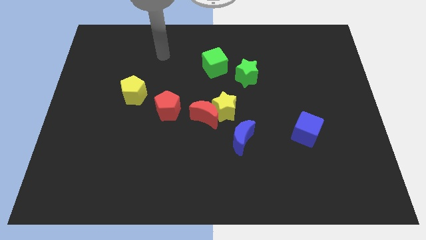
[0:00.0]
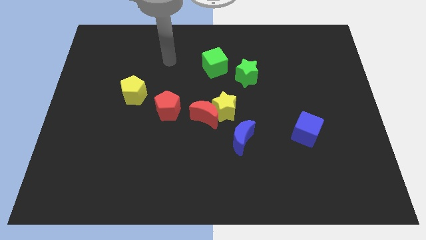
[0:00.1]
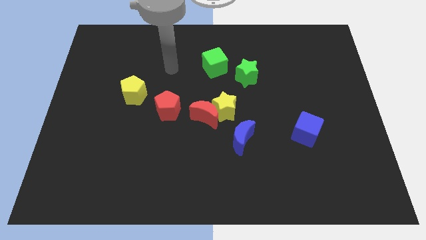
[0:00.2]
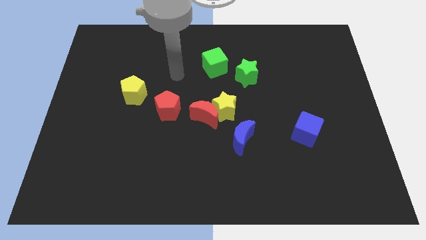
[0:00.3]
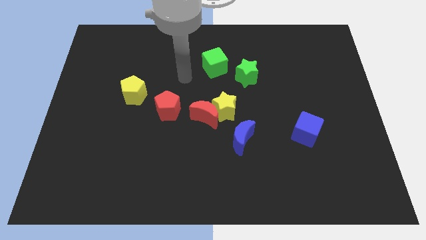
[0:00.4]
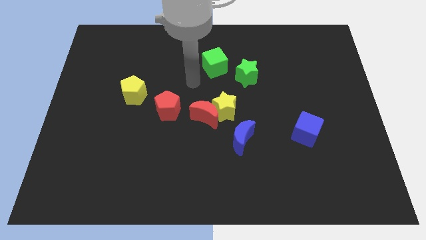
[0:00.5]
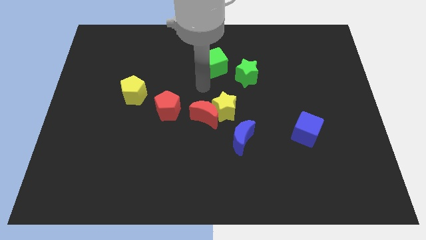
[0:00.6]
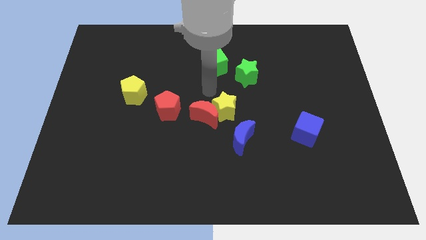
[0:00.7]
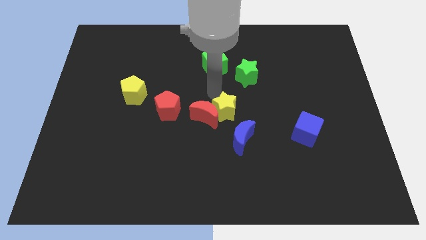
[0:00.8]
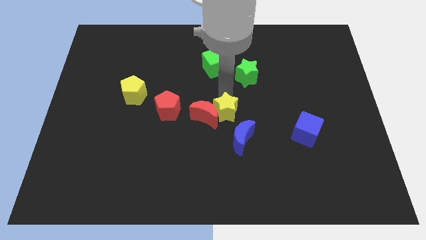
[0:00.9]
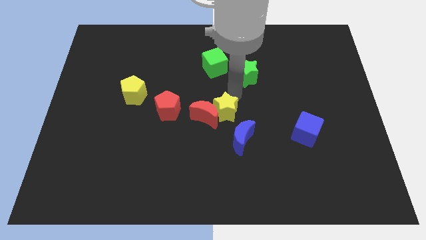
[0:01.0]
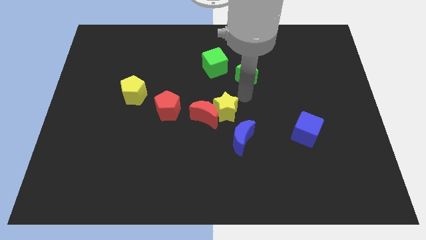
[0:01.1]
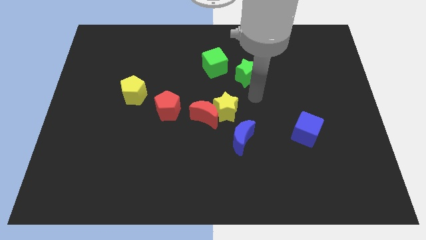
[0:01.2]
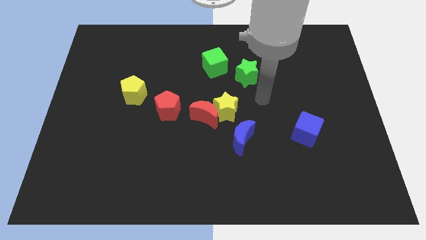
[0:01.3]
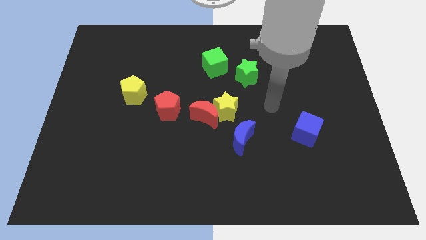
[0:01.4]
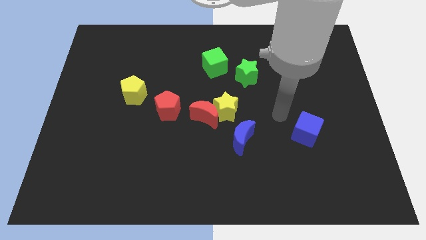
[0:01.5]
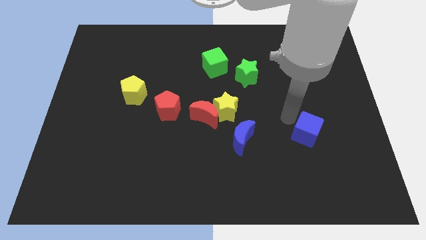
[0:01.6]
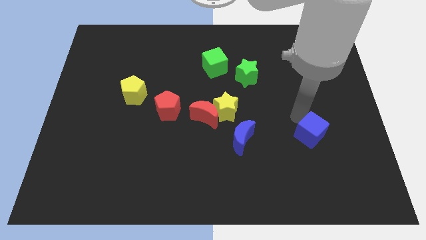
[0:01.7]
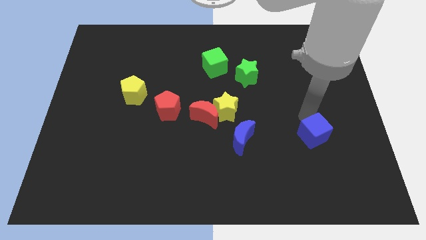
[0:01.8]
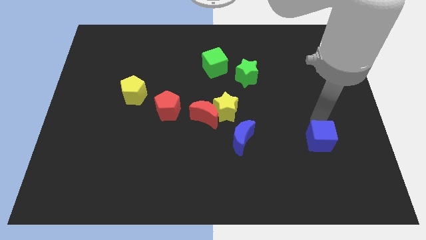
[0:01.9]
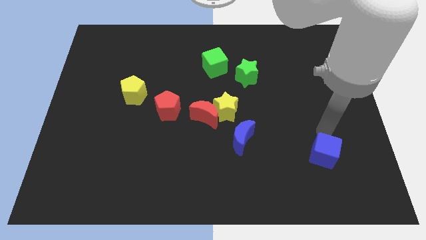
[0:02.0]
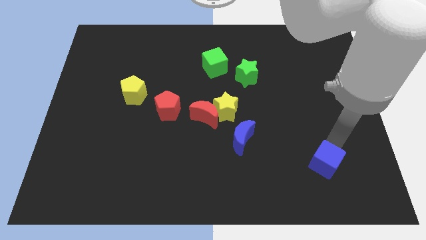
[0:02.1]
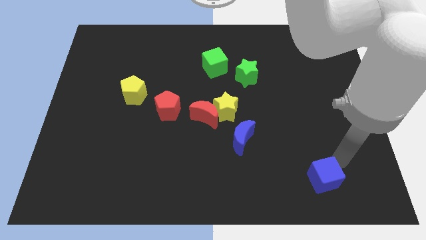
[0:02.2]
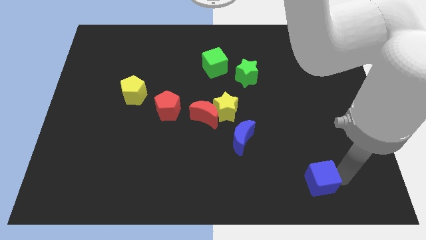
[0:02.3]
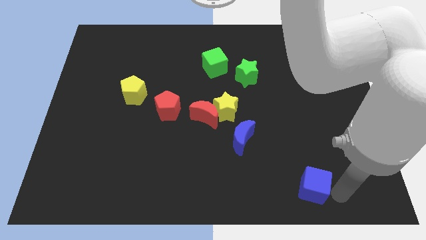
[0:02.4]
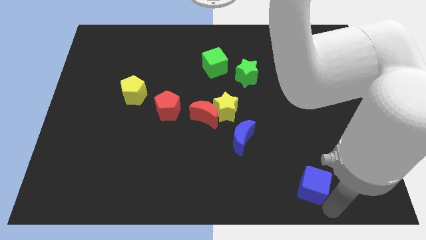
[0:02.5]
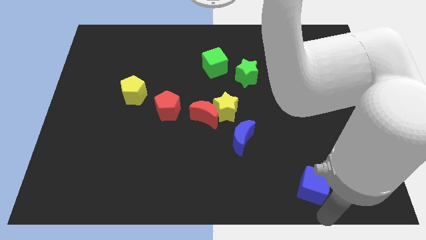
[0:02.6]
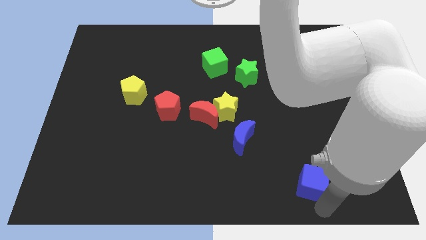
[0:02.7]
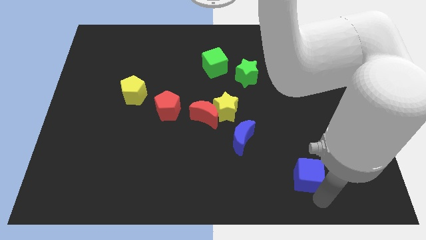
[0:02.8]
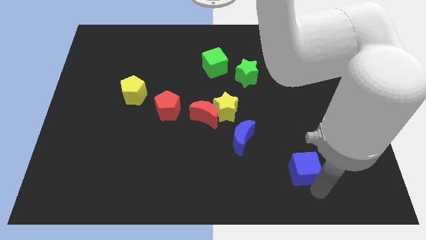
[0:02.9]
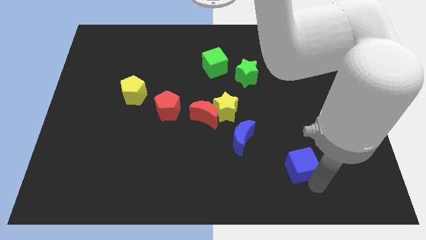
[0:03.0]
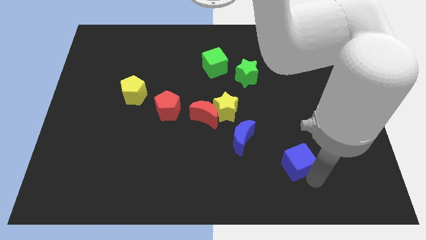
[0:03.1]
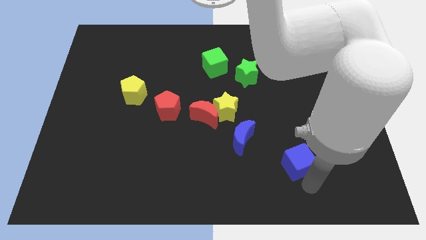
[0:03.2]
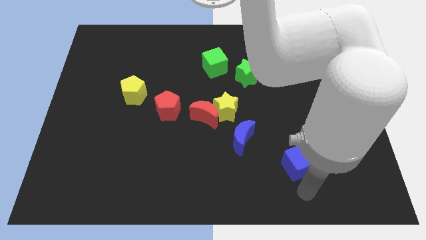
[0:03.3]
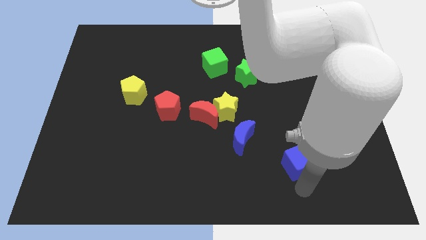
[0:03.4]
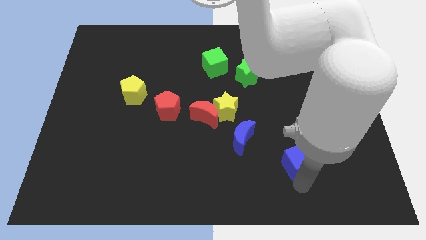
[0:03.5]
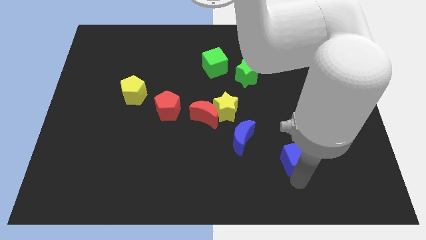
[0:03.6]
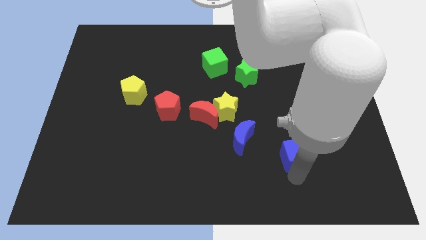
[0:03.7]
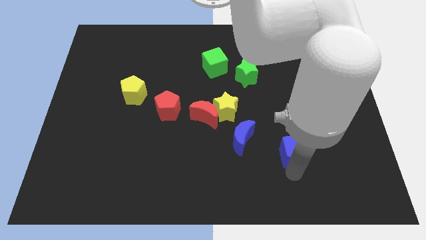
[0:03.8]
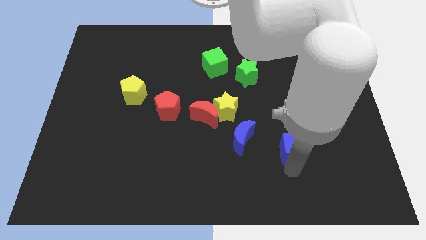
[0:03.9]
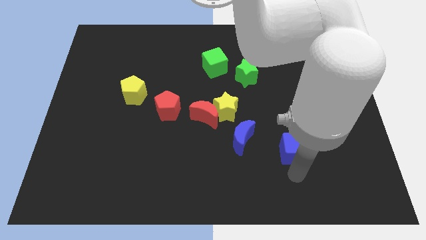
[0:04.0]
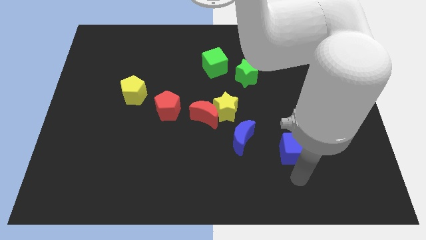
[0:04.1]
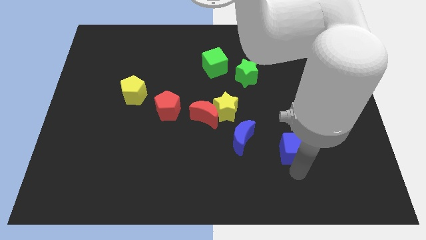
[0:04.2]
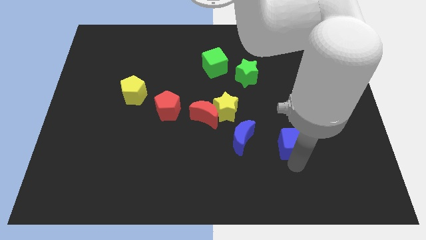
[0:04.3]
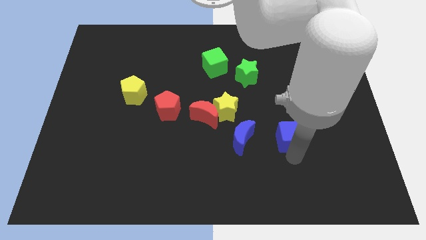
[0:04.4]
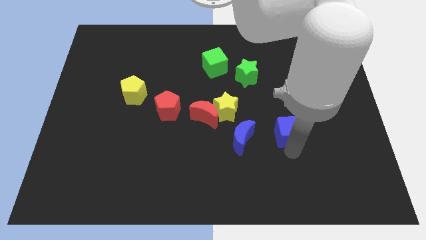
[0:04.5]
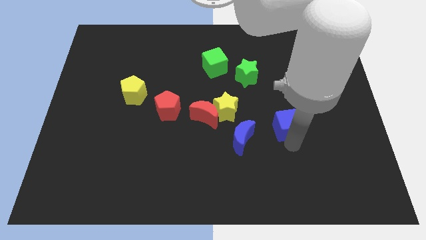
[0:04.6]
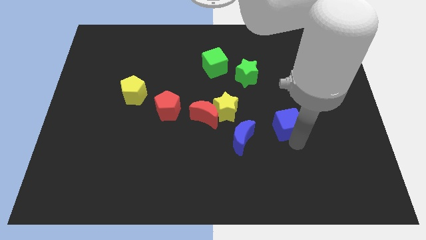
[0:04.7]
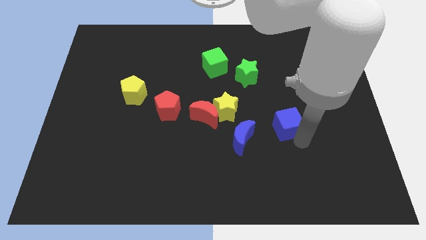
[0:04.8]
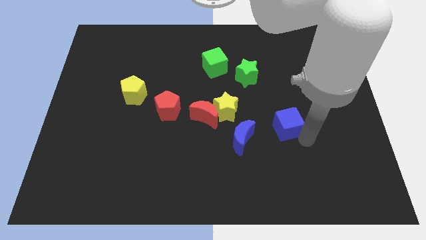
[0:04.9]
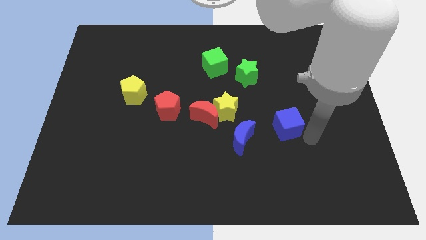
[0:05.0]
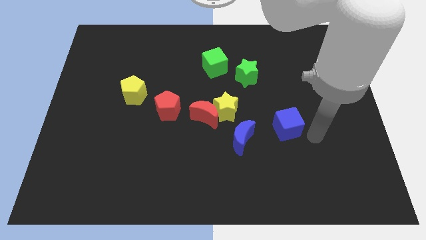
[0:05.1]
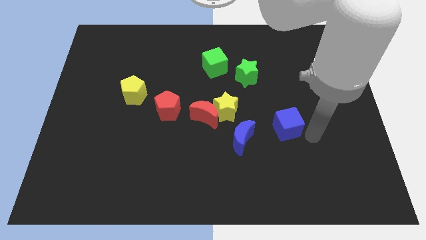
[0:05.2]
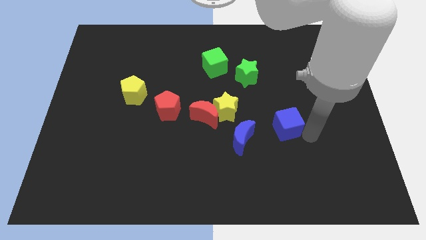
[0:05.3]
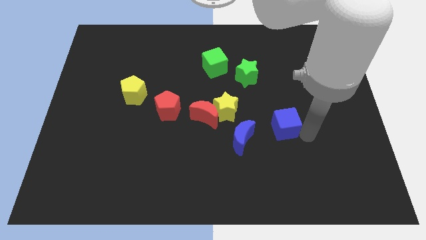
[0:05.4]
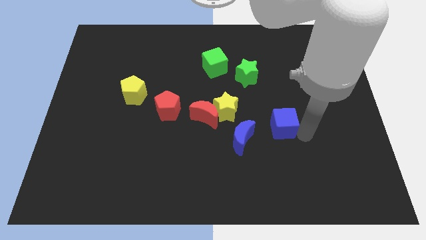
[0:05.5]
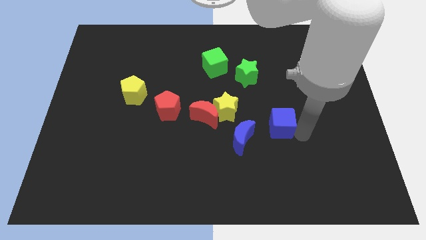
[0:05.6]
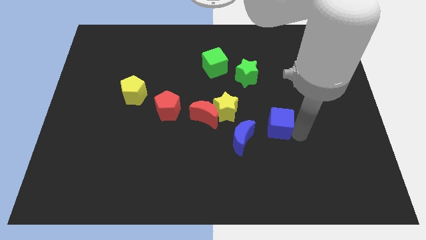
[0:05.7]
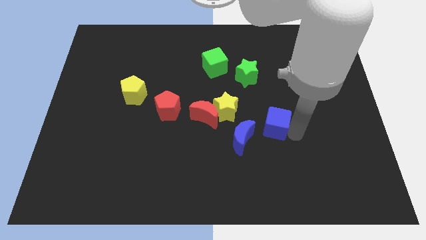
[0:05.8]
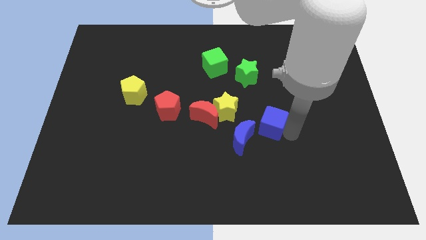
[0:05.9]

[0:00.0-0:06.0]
slightly slide the blue cube to the left

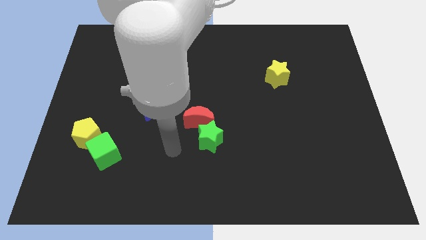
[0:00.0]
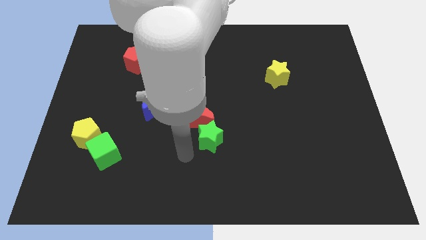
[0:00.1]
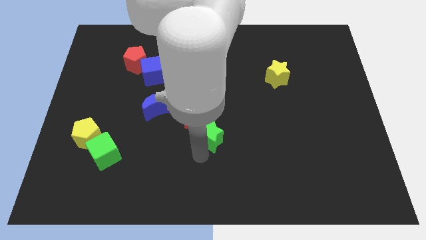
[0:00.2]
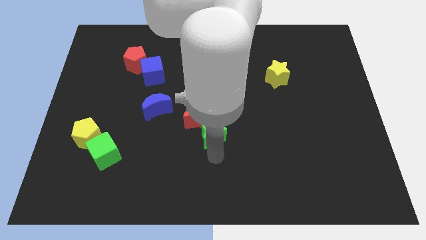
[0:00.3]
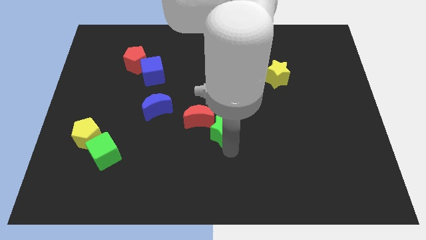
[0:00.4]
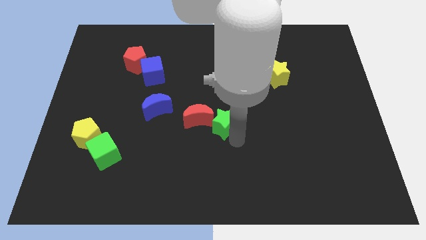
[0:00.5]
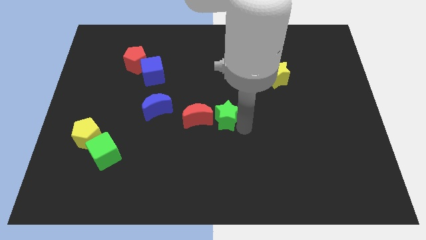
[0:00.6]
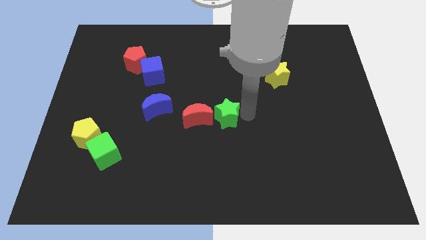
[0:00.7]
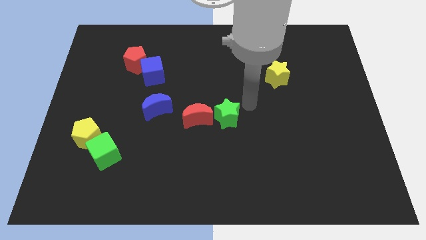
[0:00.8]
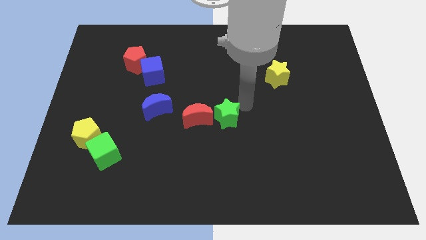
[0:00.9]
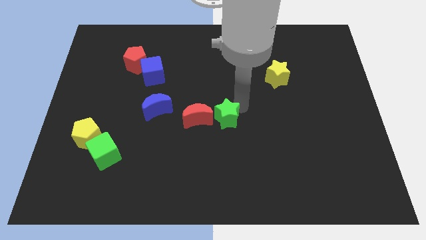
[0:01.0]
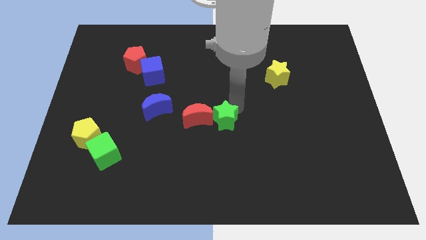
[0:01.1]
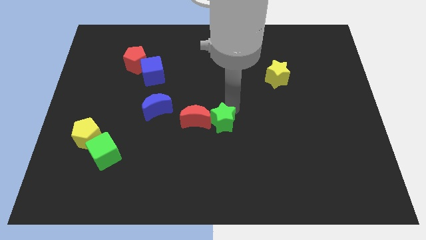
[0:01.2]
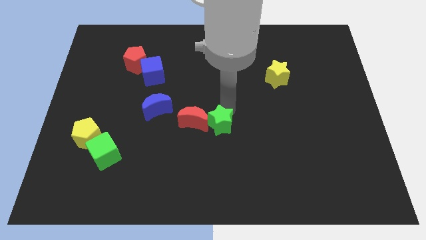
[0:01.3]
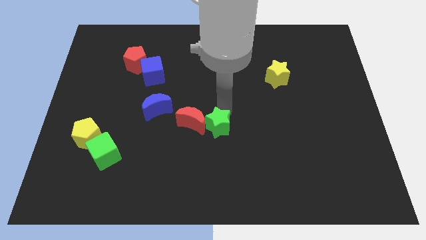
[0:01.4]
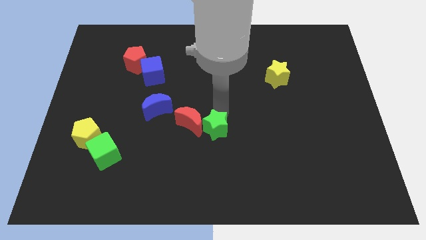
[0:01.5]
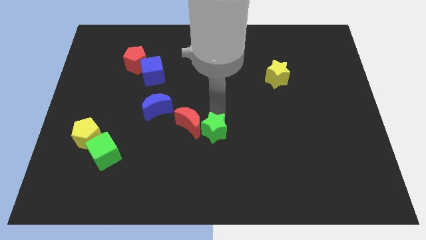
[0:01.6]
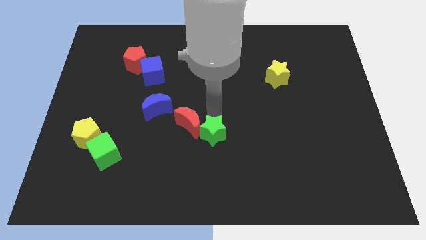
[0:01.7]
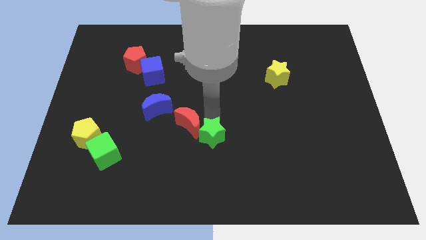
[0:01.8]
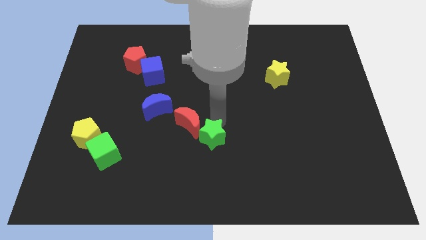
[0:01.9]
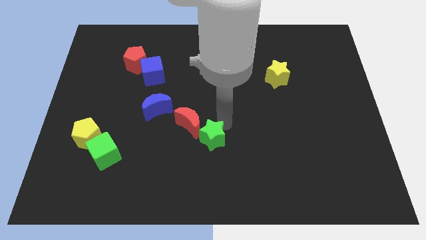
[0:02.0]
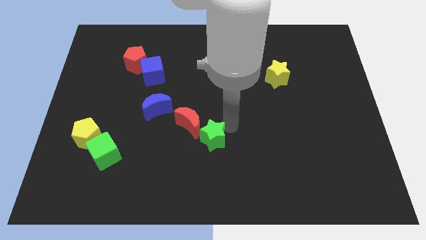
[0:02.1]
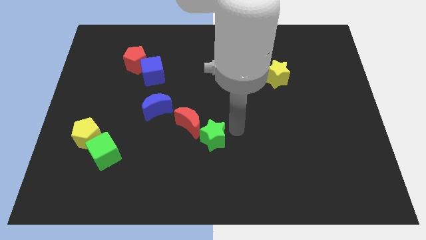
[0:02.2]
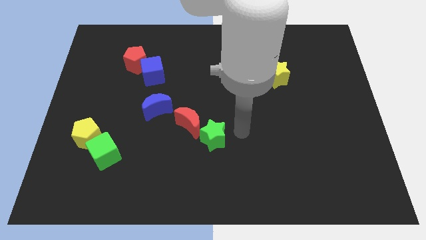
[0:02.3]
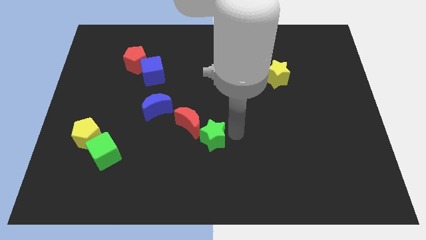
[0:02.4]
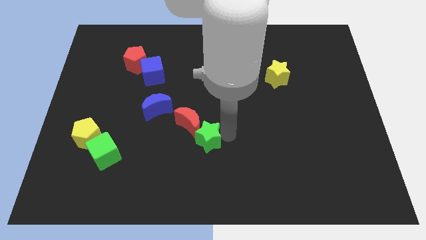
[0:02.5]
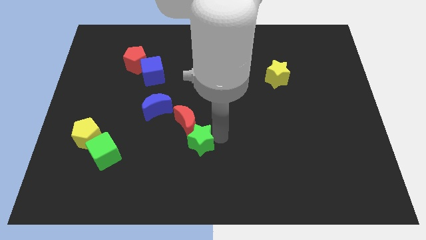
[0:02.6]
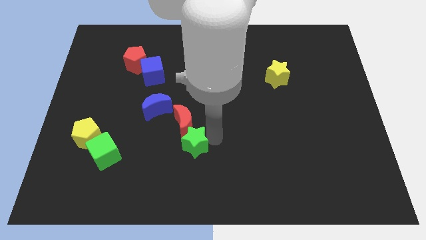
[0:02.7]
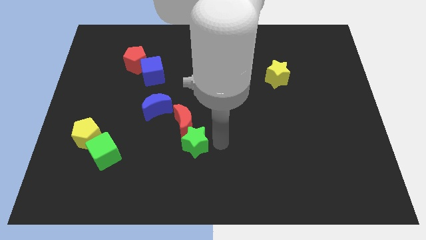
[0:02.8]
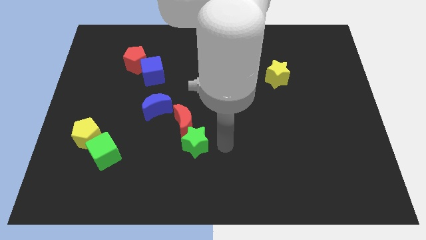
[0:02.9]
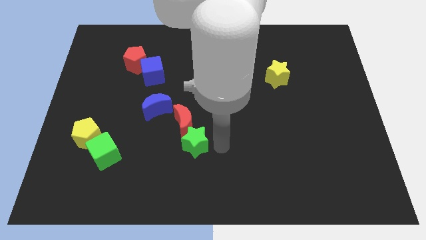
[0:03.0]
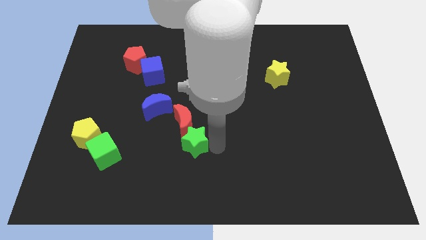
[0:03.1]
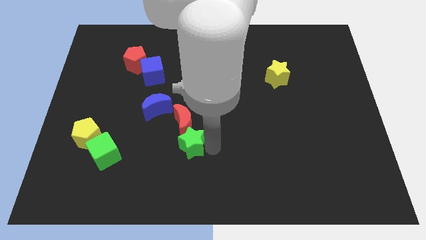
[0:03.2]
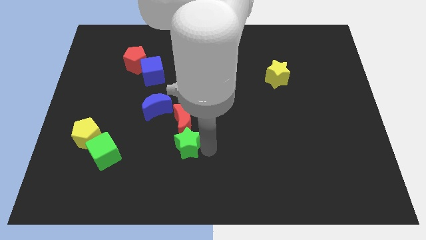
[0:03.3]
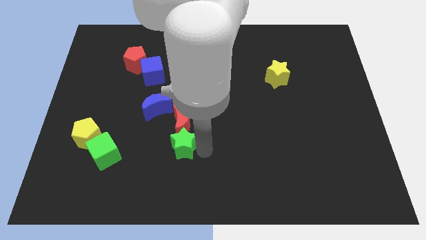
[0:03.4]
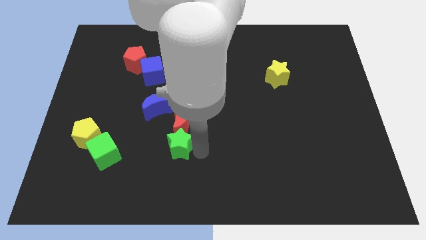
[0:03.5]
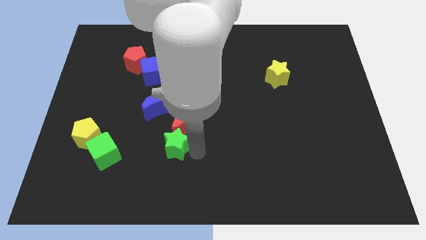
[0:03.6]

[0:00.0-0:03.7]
slide the green star a bit to the left
